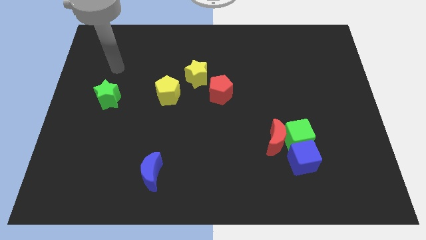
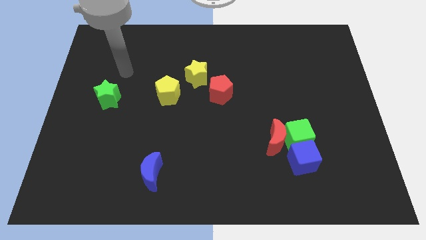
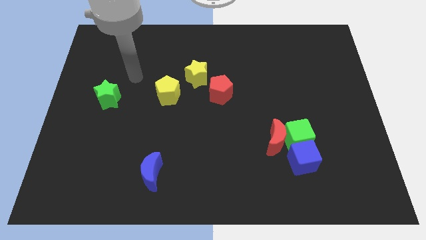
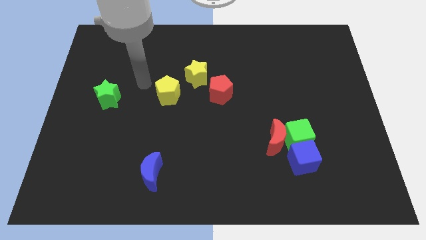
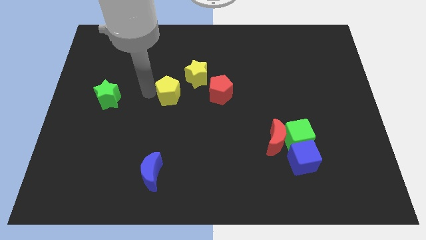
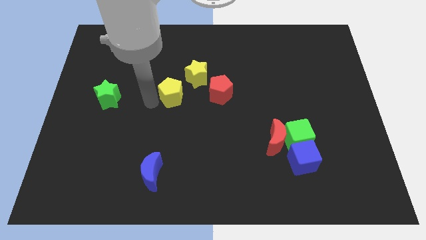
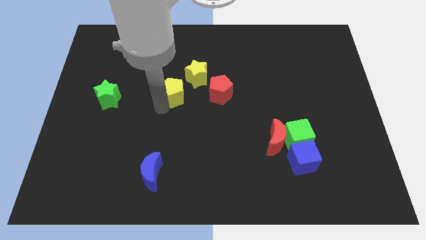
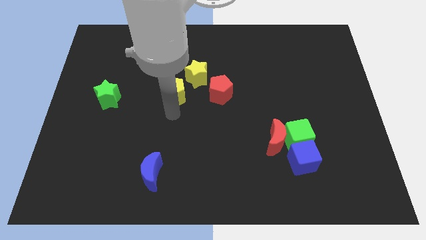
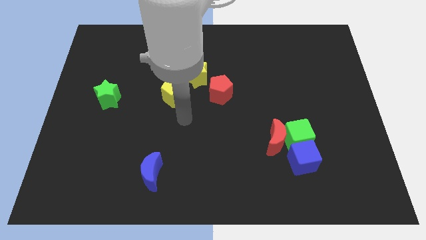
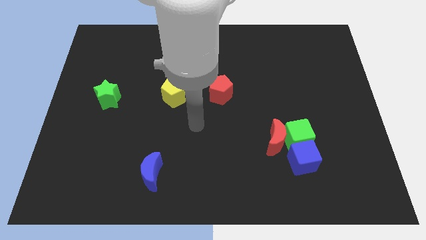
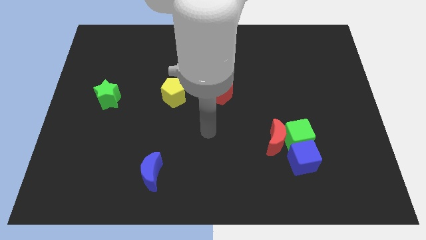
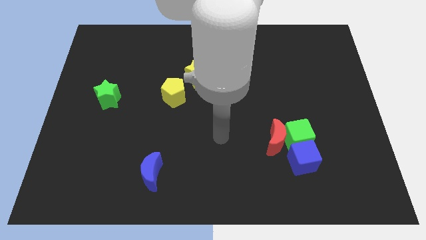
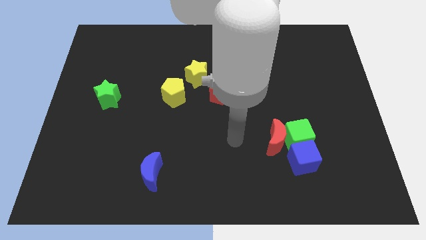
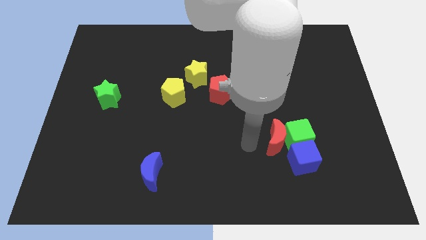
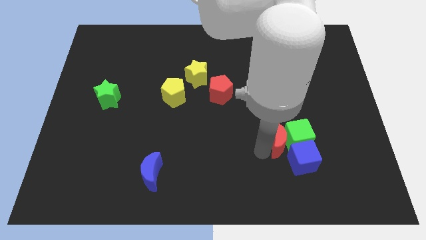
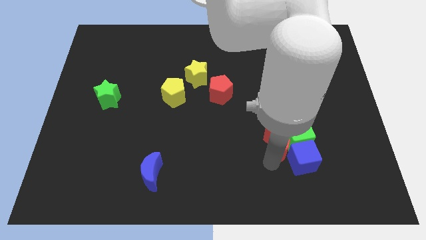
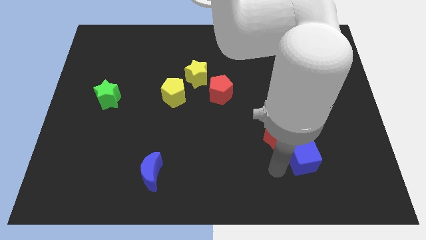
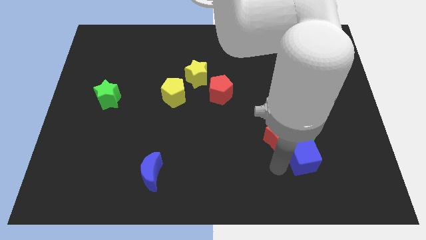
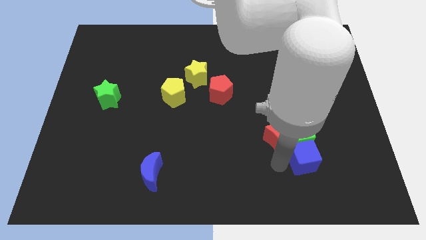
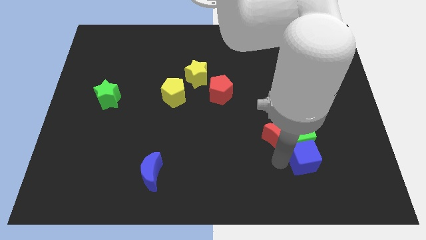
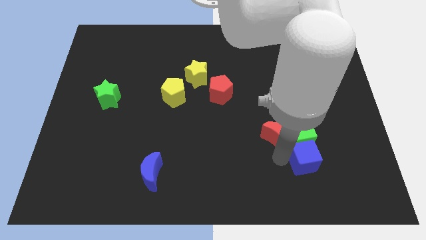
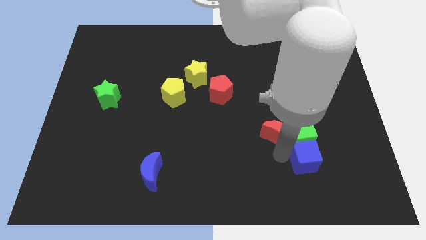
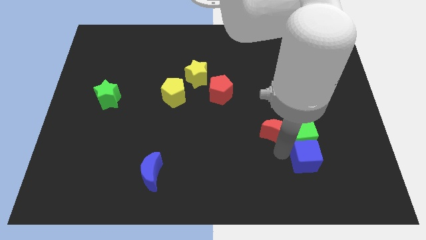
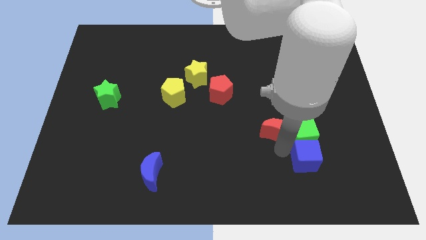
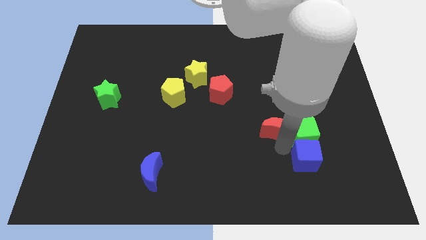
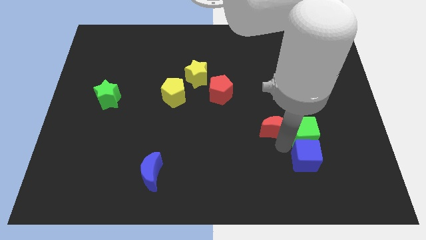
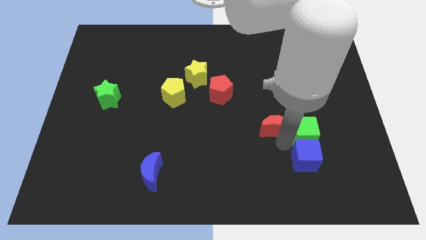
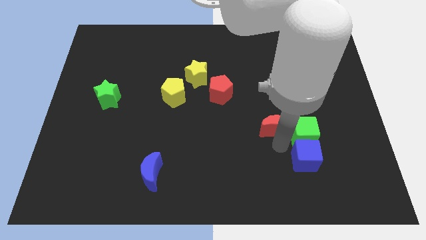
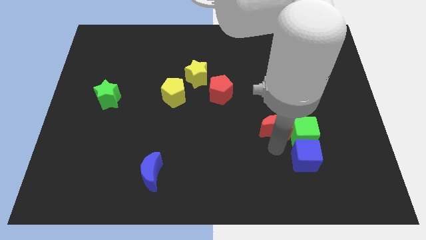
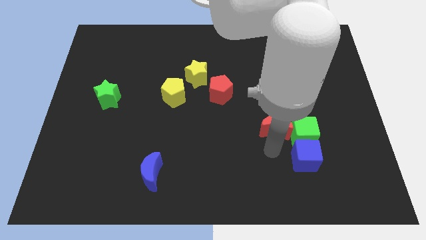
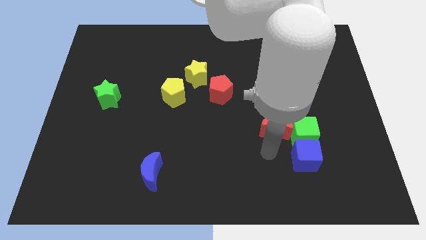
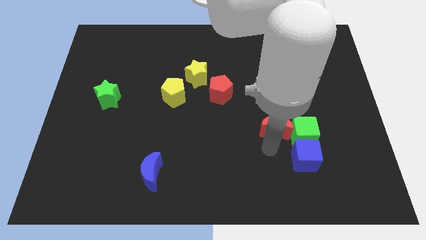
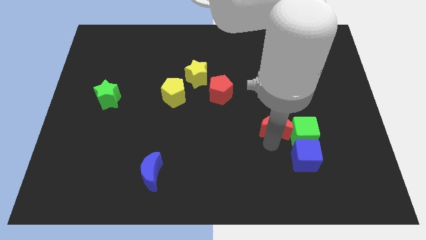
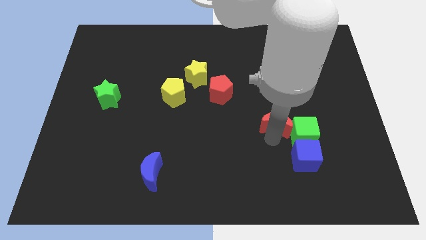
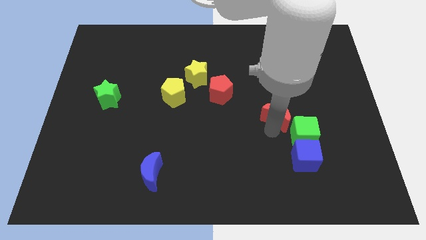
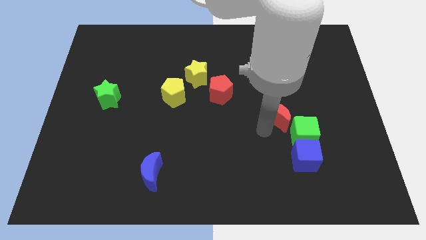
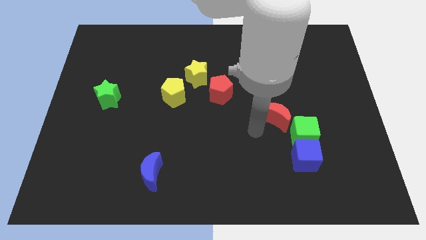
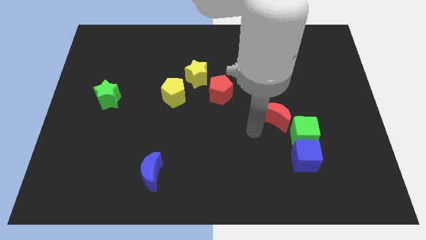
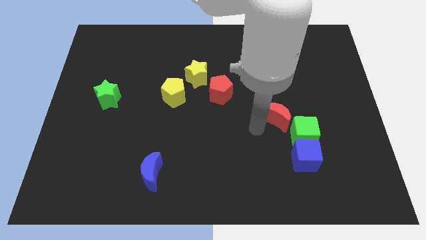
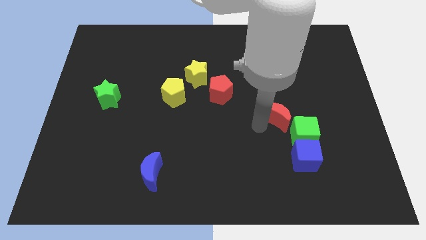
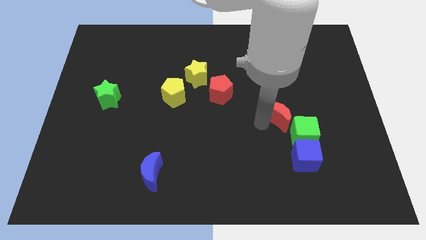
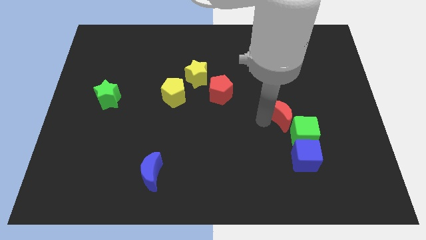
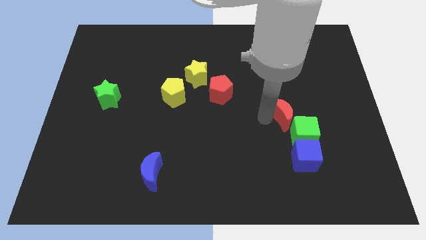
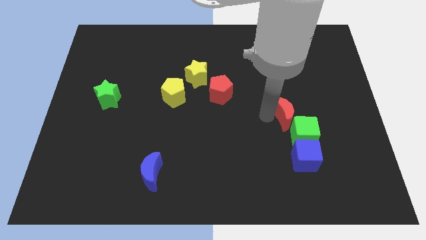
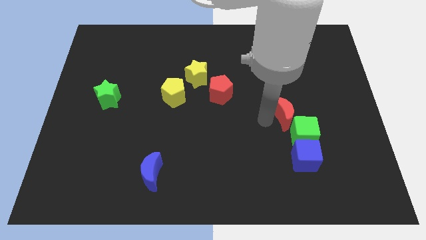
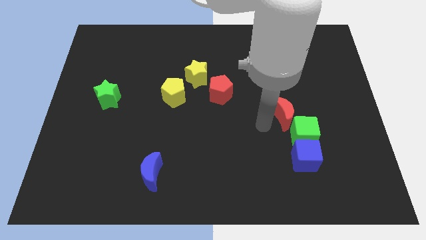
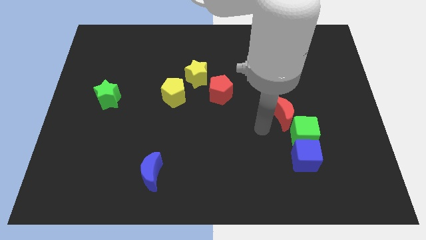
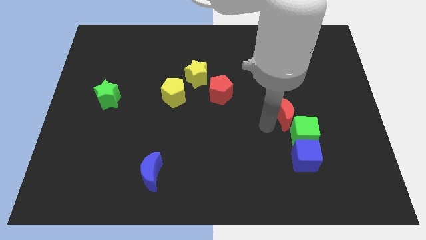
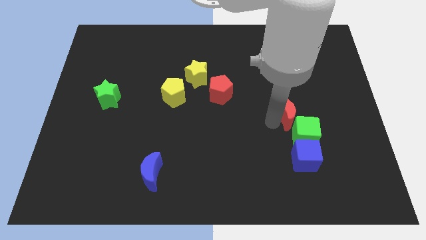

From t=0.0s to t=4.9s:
move the red moon diagonally upwards and to the right a little

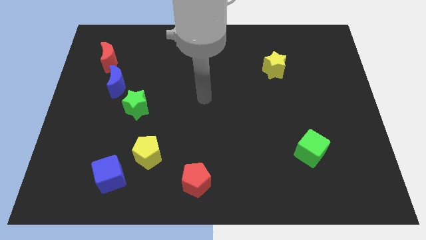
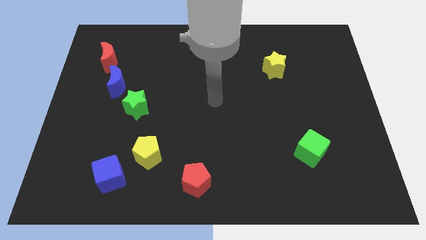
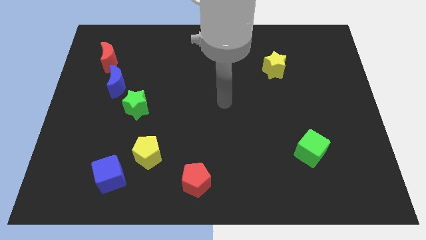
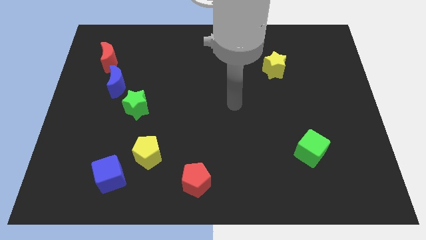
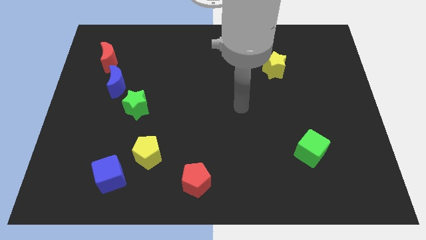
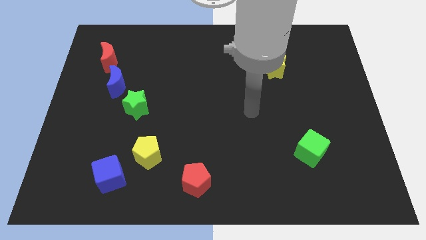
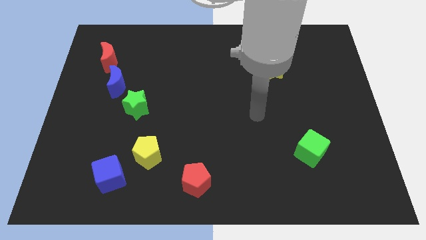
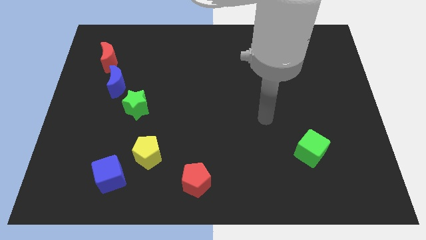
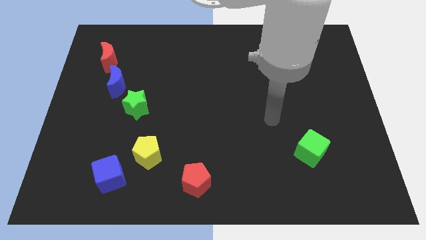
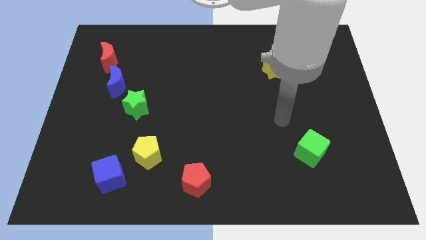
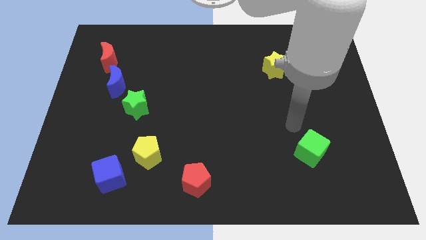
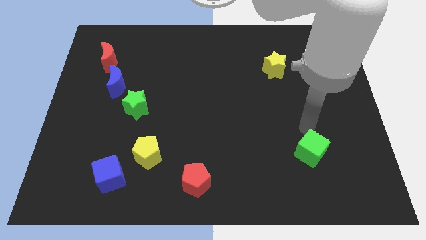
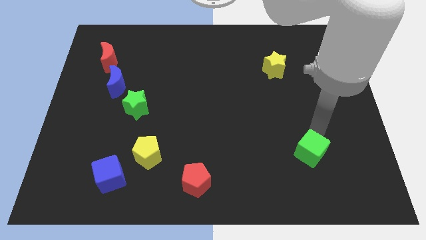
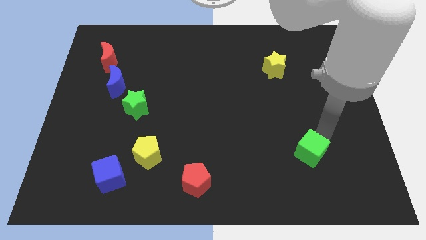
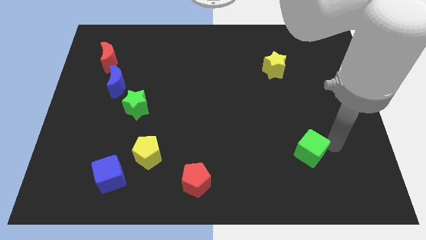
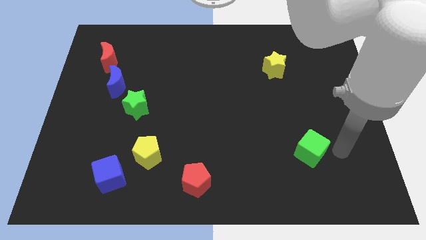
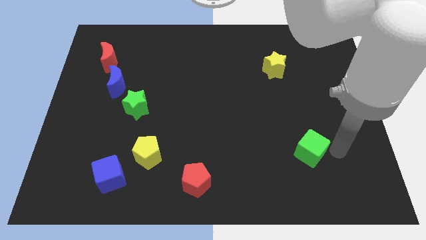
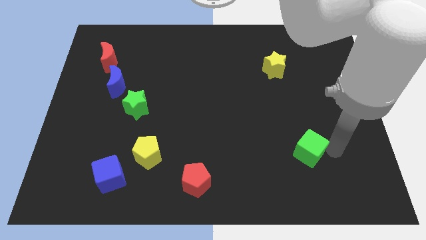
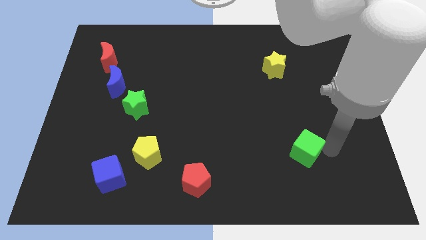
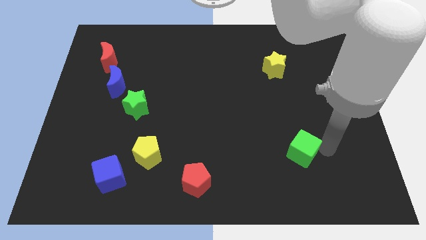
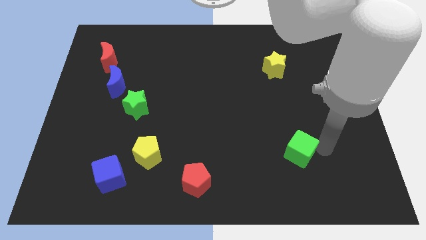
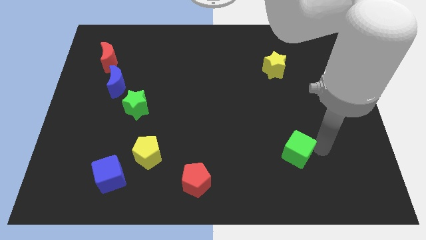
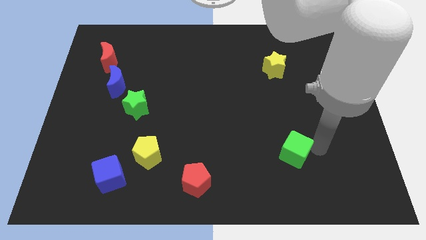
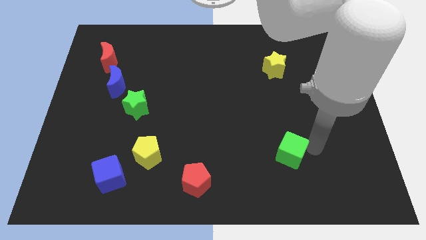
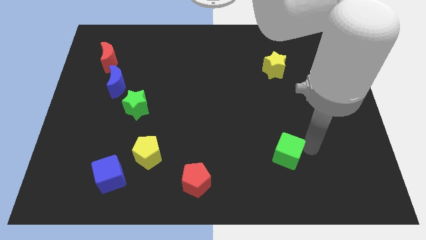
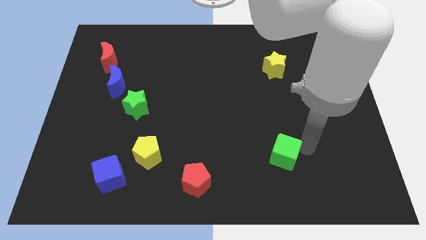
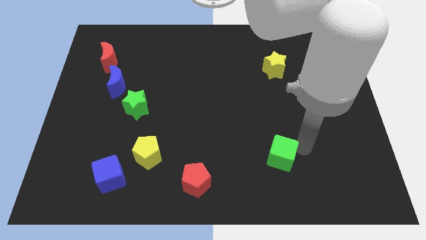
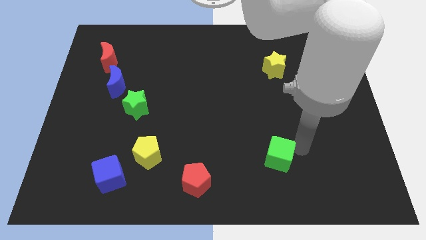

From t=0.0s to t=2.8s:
slide the green cube a bit left

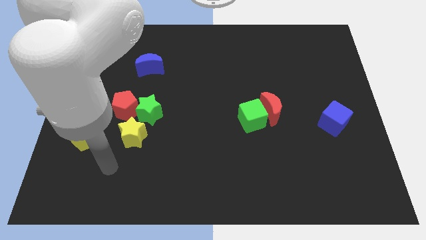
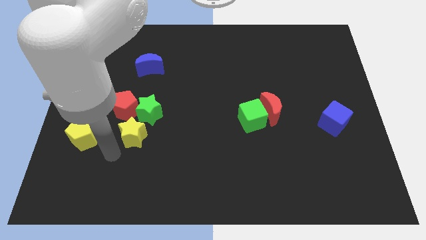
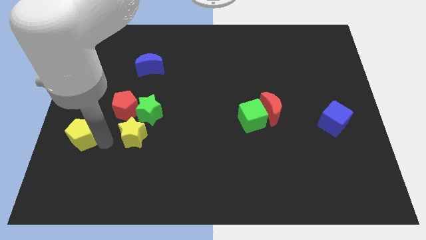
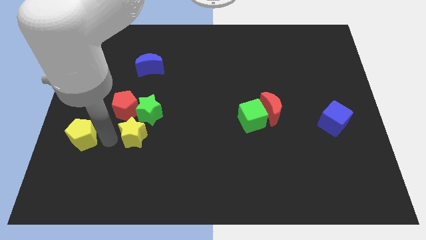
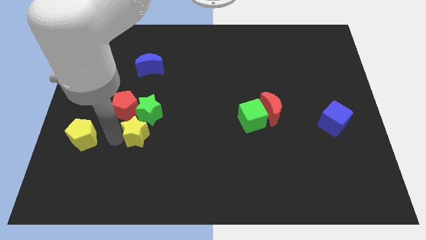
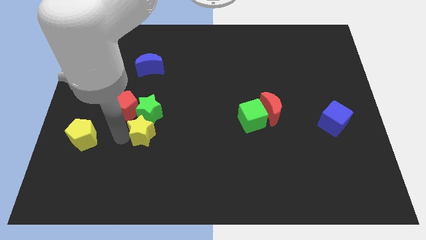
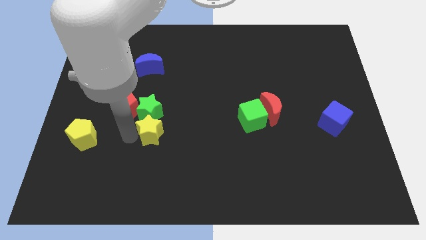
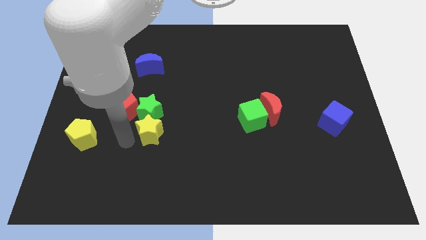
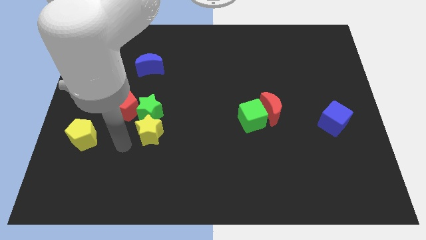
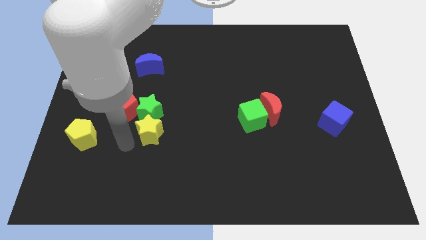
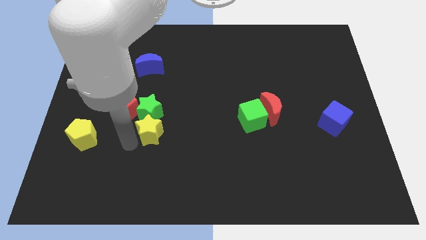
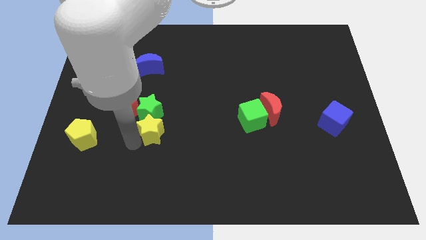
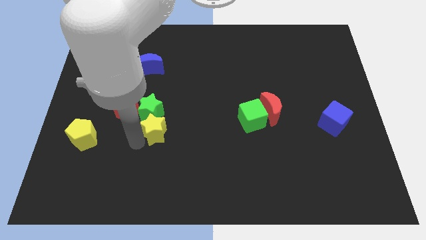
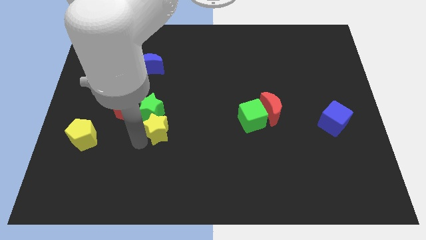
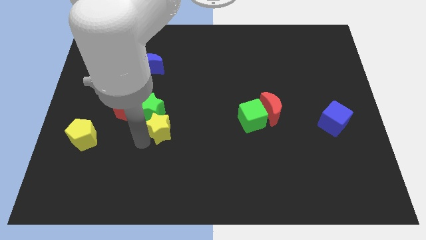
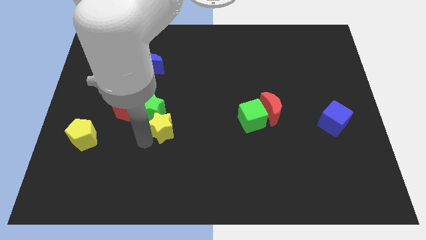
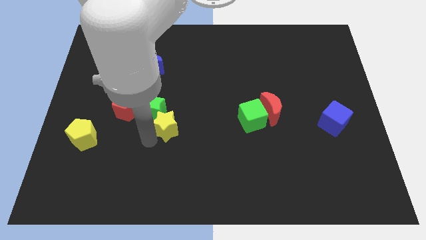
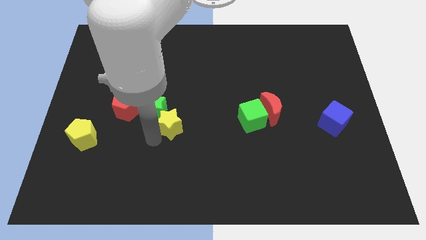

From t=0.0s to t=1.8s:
slightly move the yellow star upwards and right
